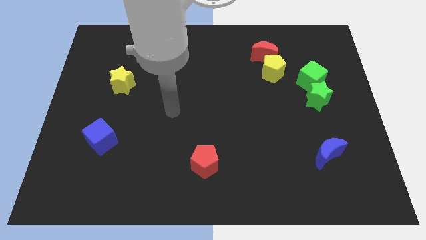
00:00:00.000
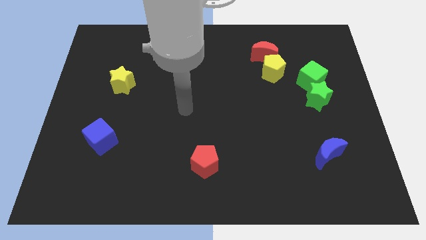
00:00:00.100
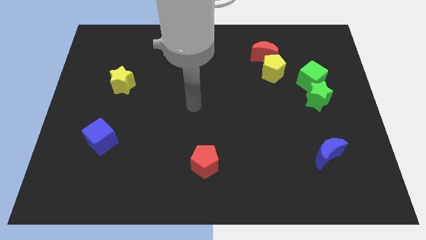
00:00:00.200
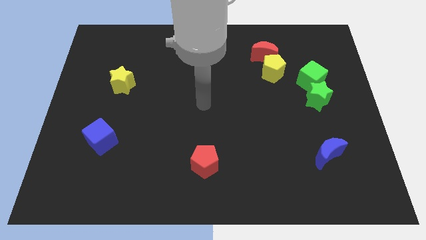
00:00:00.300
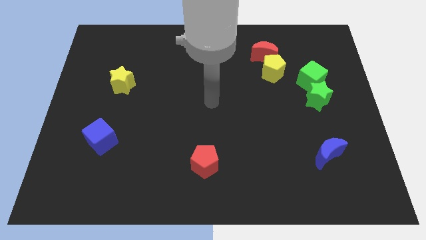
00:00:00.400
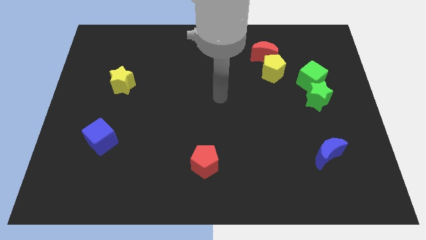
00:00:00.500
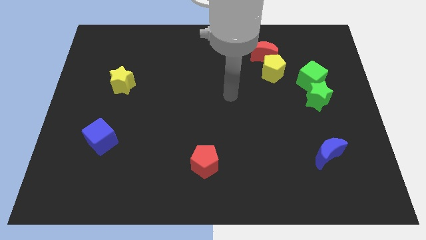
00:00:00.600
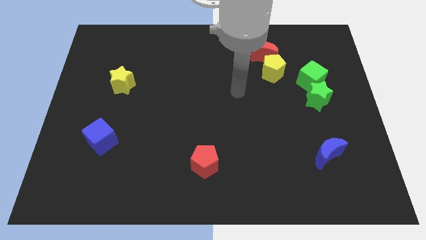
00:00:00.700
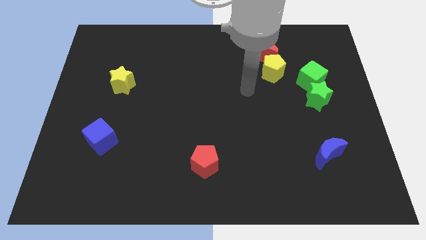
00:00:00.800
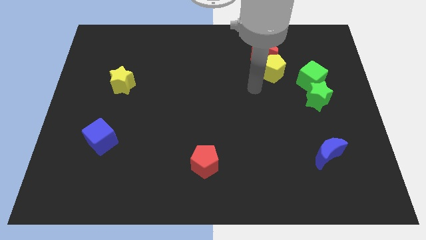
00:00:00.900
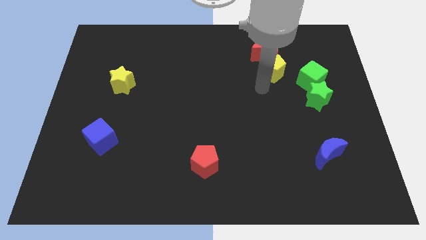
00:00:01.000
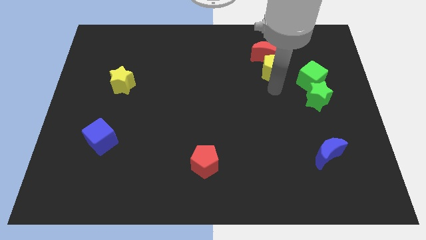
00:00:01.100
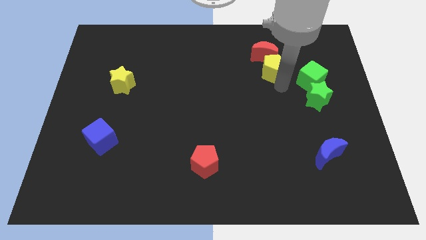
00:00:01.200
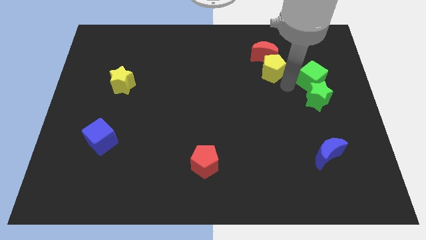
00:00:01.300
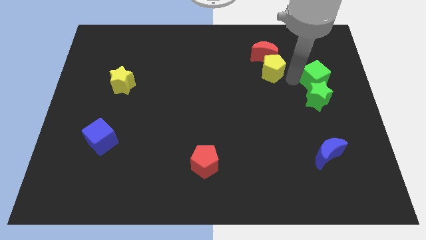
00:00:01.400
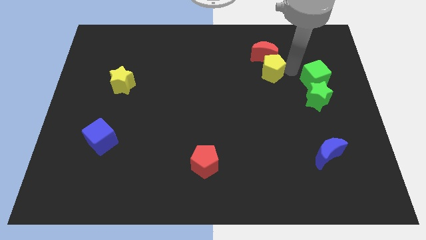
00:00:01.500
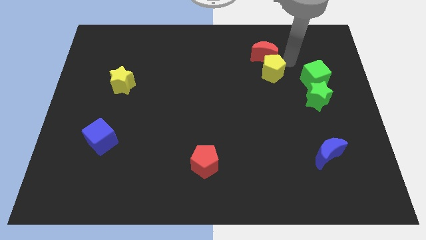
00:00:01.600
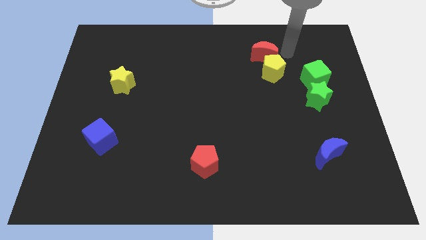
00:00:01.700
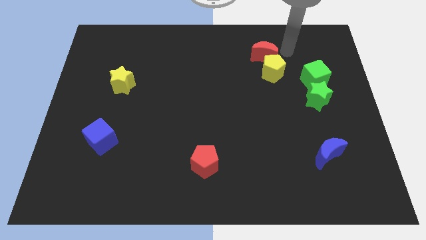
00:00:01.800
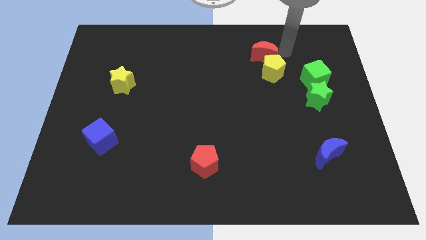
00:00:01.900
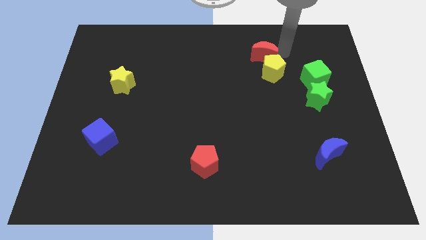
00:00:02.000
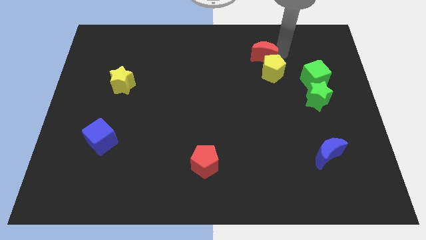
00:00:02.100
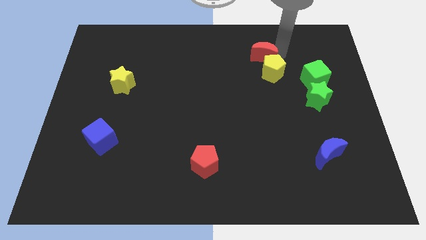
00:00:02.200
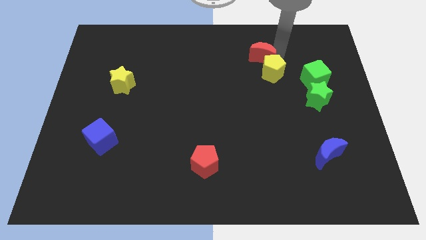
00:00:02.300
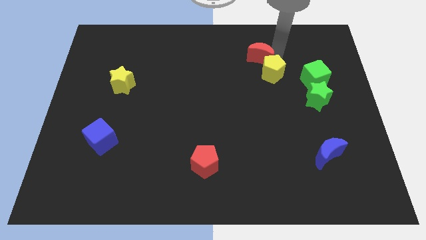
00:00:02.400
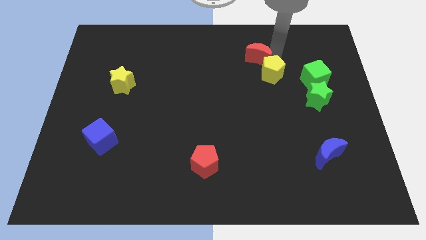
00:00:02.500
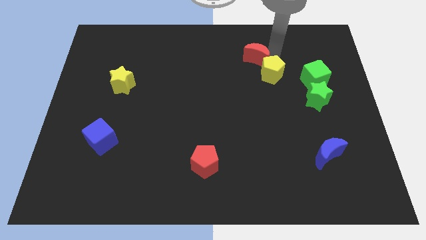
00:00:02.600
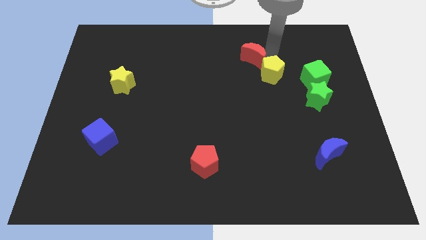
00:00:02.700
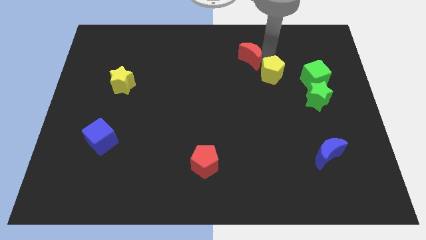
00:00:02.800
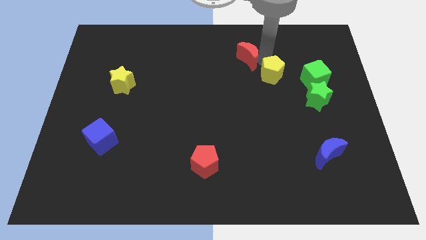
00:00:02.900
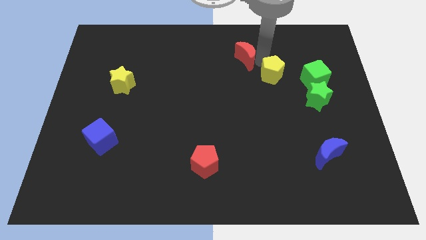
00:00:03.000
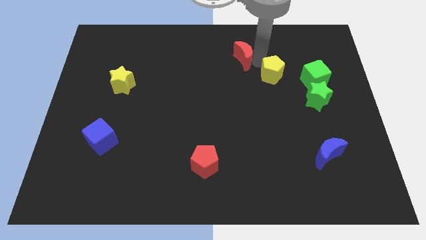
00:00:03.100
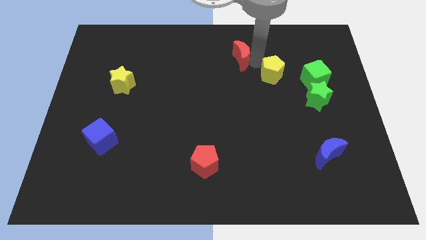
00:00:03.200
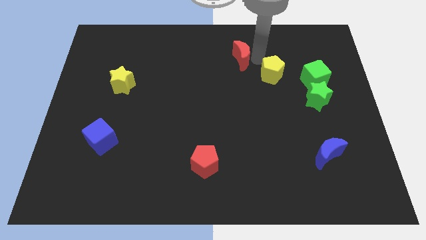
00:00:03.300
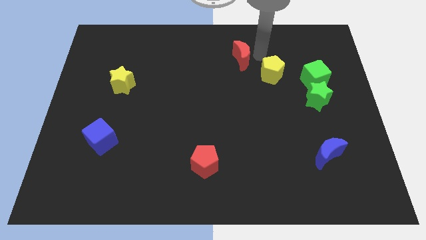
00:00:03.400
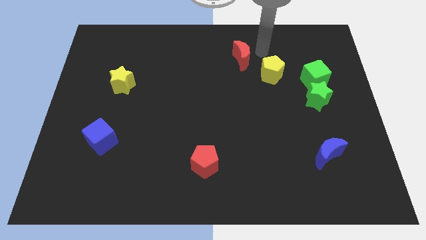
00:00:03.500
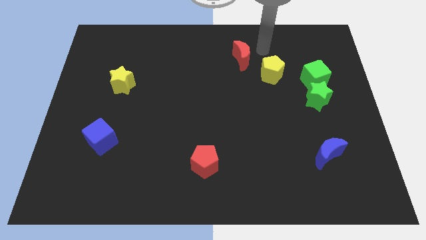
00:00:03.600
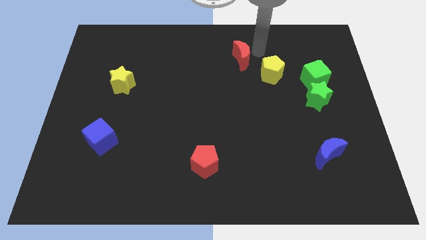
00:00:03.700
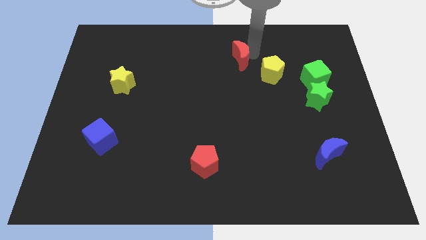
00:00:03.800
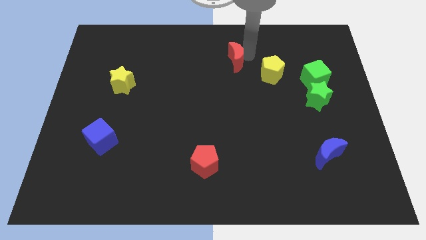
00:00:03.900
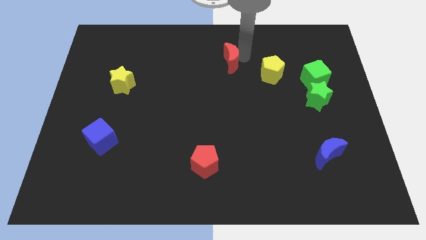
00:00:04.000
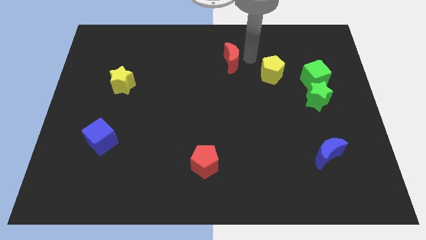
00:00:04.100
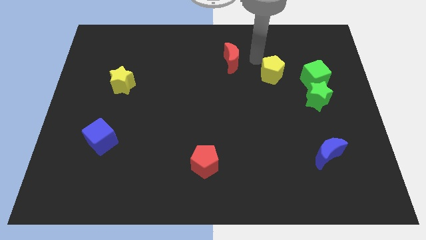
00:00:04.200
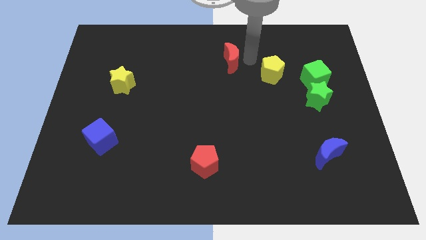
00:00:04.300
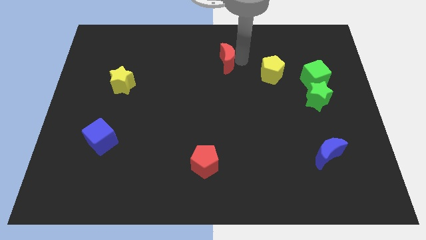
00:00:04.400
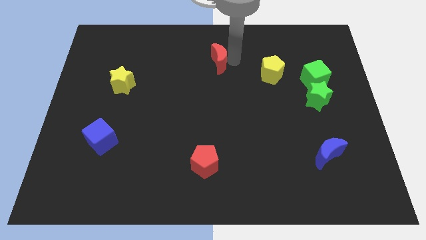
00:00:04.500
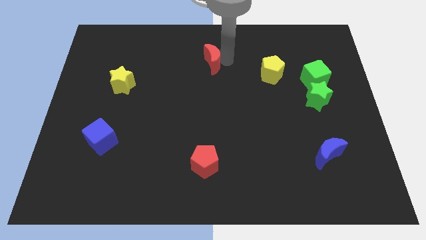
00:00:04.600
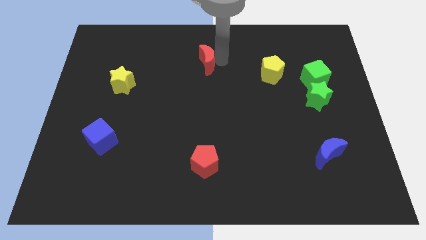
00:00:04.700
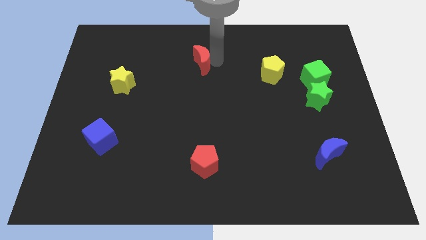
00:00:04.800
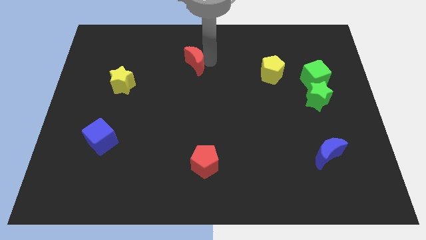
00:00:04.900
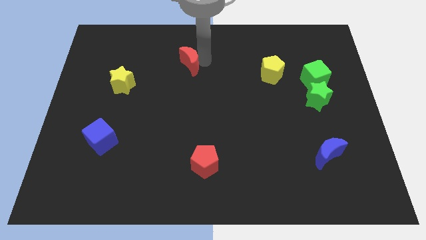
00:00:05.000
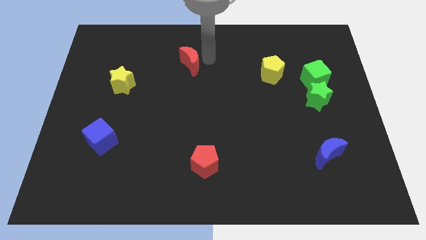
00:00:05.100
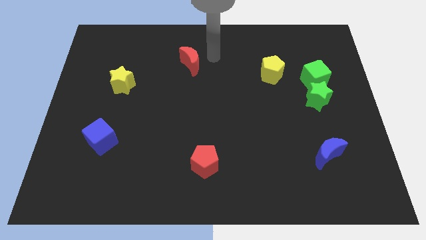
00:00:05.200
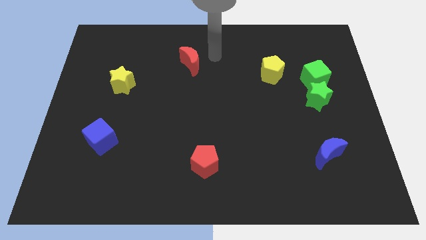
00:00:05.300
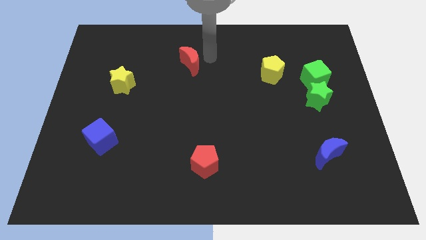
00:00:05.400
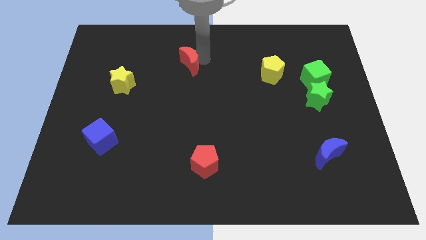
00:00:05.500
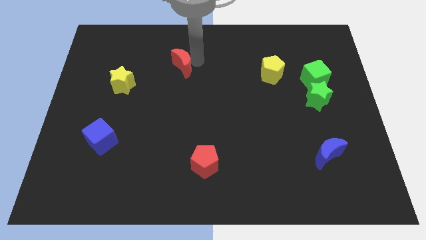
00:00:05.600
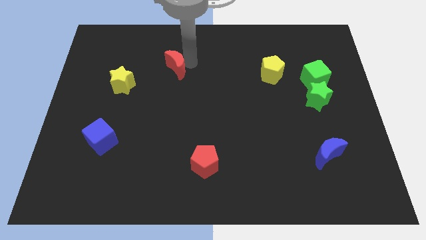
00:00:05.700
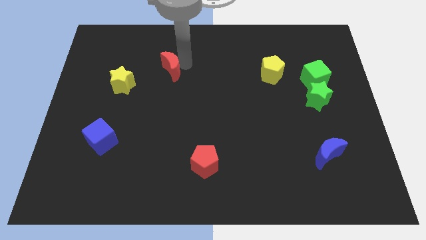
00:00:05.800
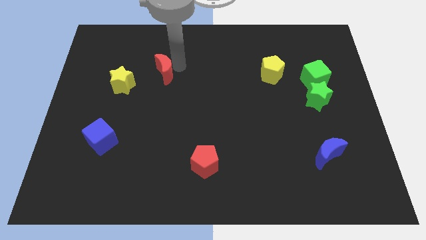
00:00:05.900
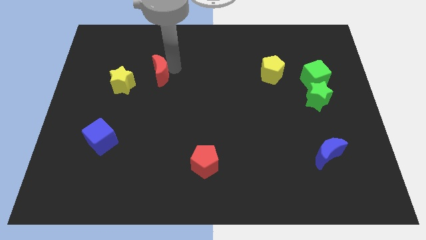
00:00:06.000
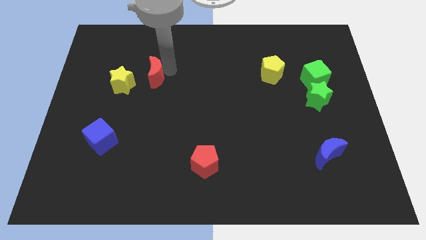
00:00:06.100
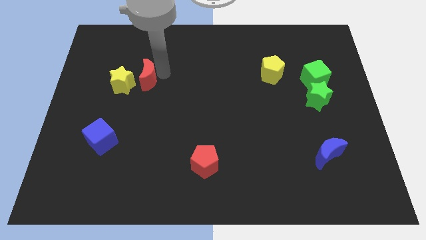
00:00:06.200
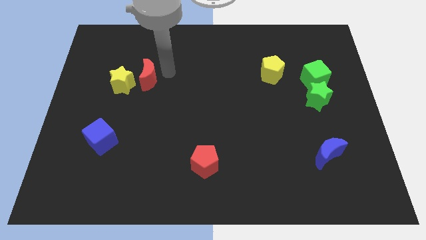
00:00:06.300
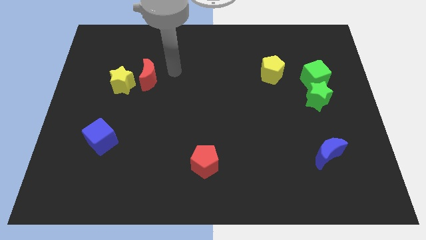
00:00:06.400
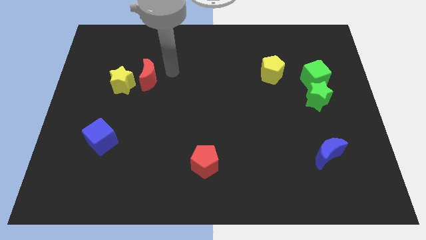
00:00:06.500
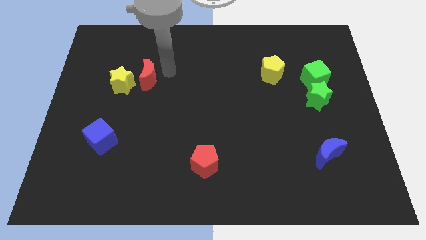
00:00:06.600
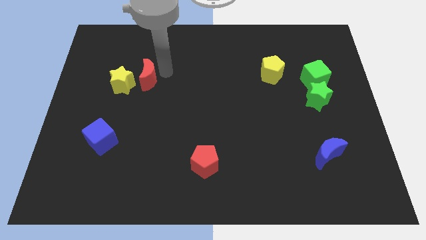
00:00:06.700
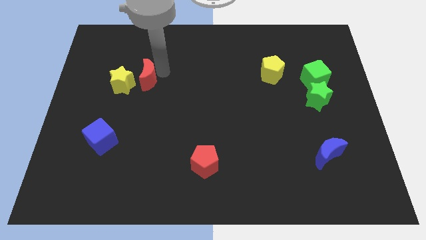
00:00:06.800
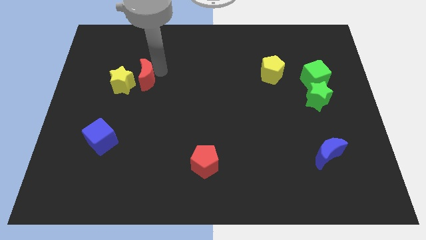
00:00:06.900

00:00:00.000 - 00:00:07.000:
move the red moon close to the yellow star
